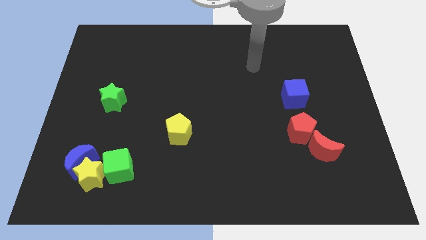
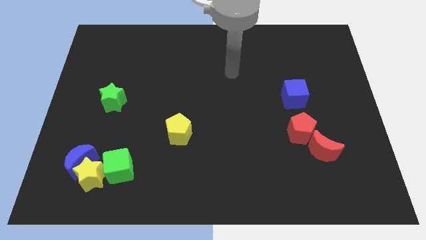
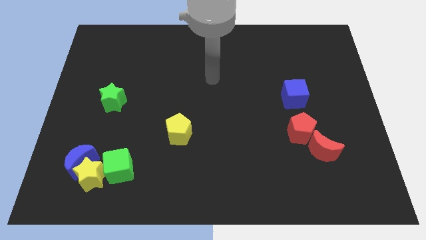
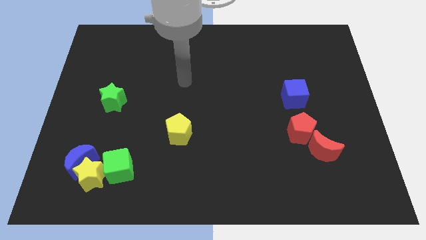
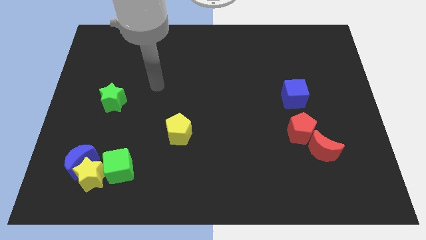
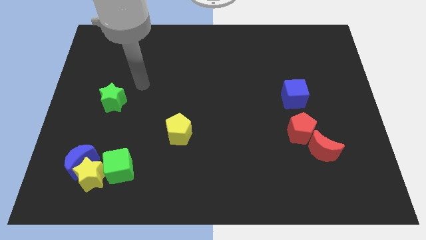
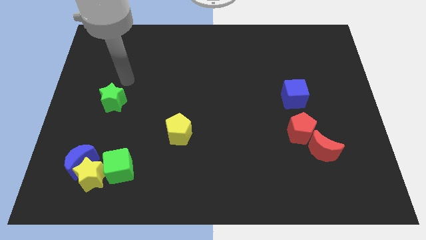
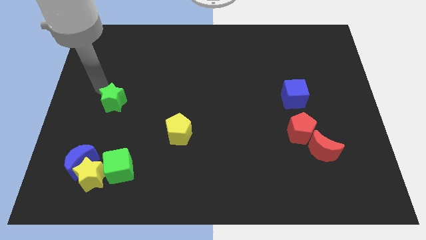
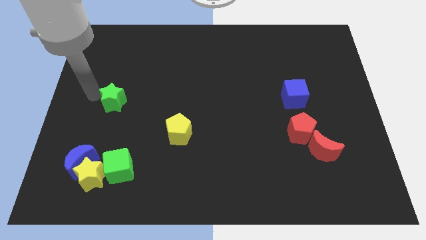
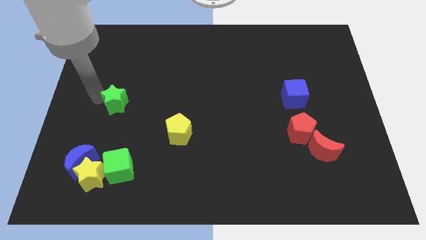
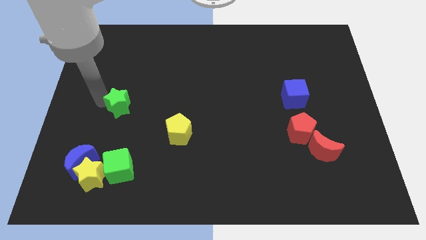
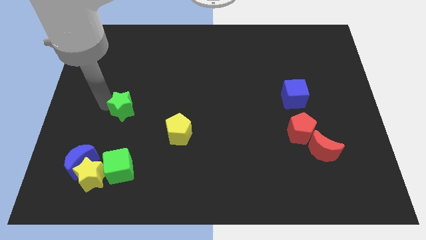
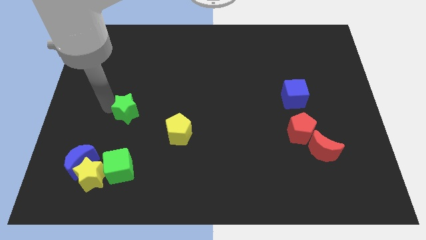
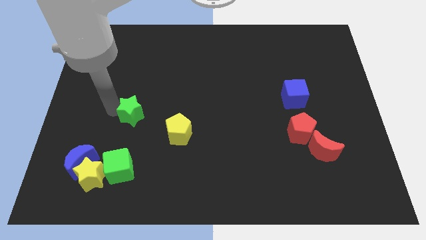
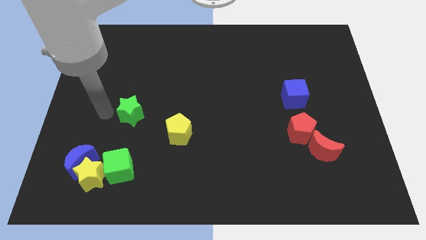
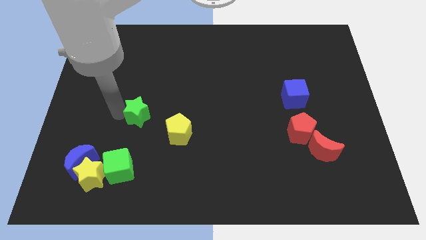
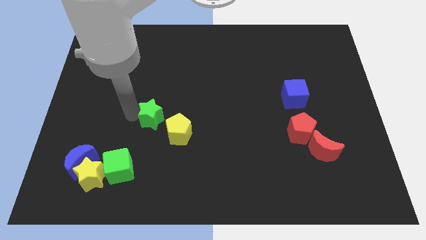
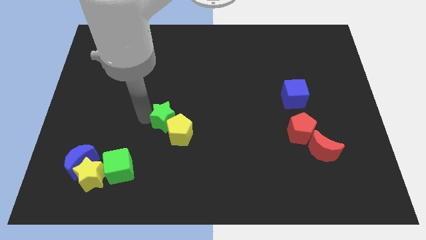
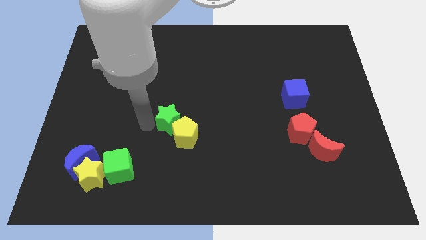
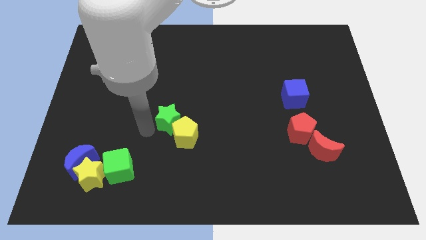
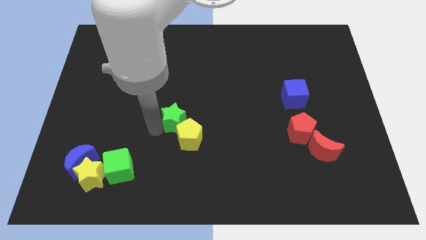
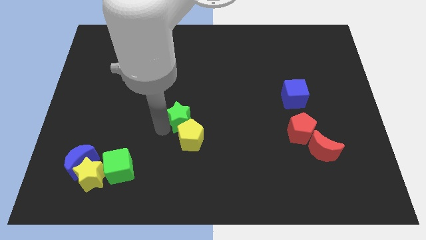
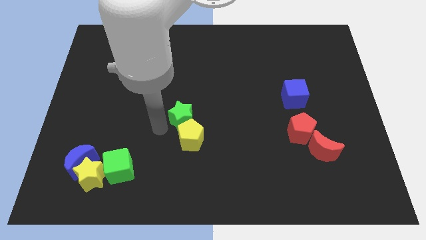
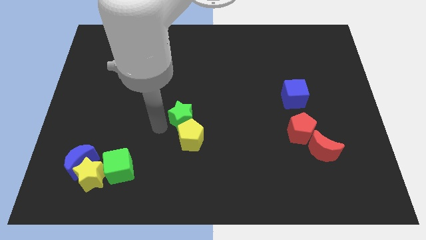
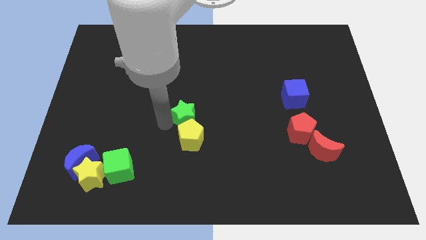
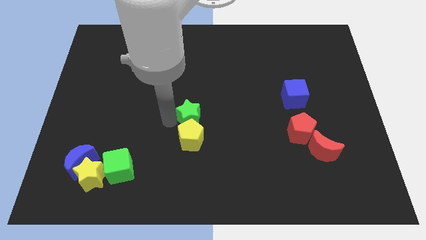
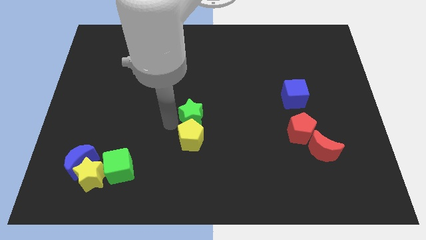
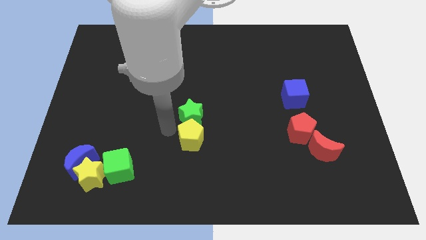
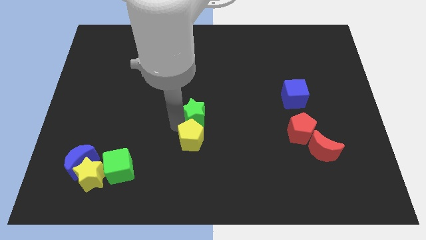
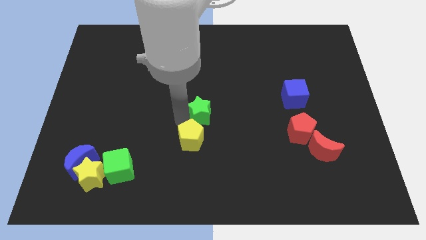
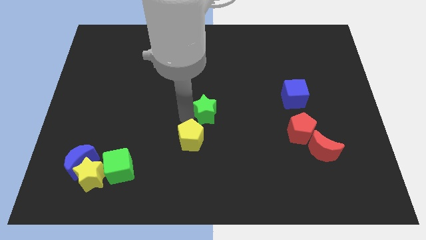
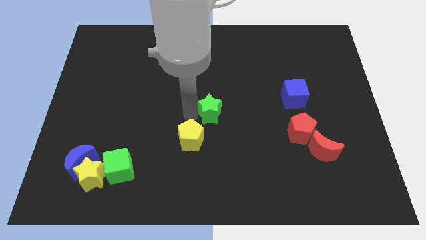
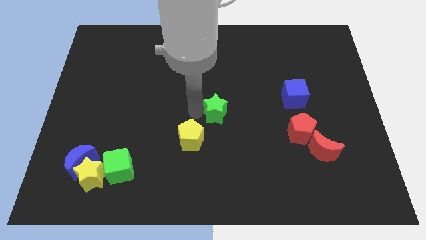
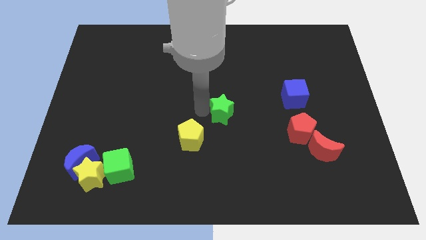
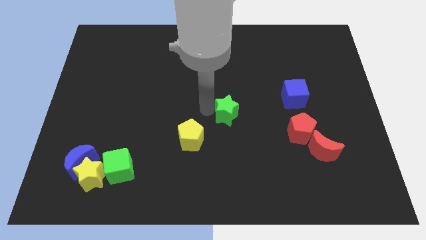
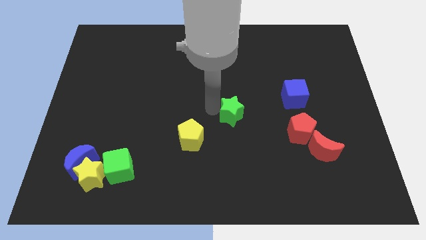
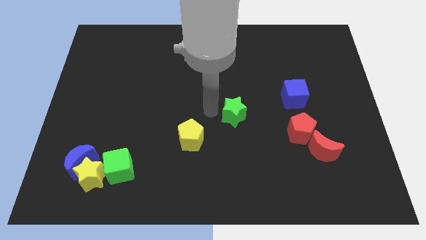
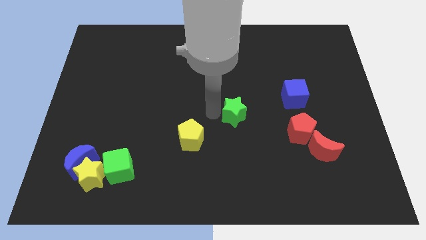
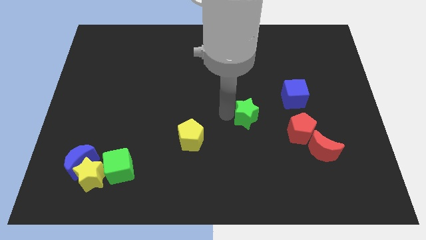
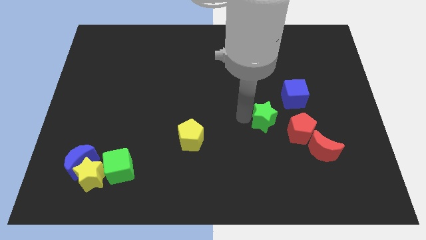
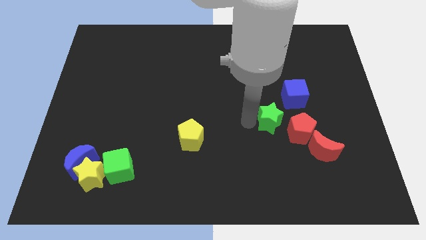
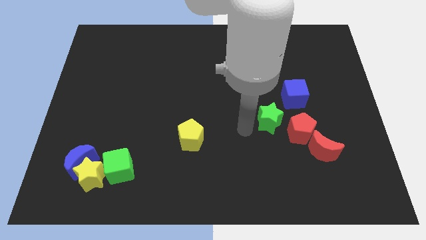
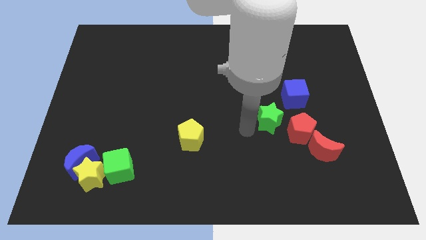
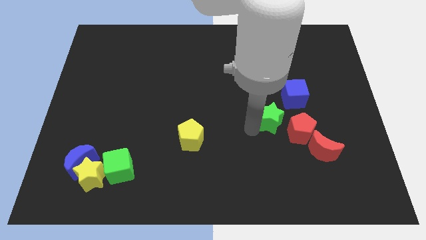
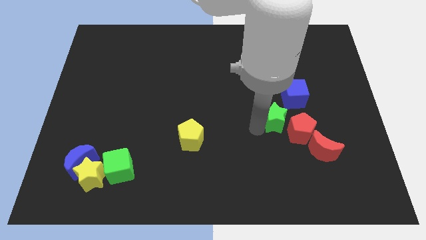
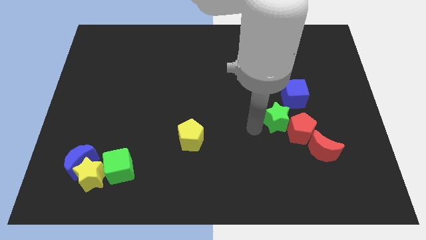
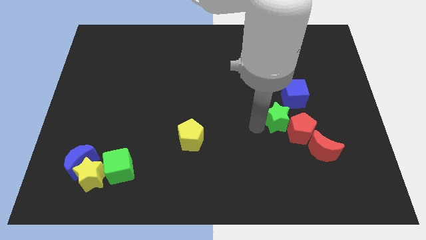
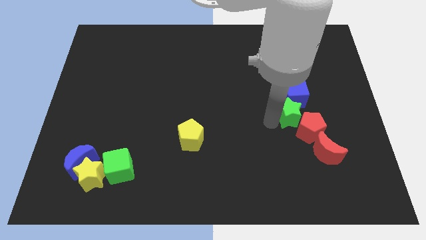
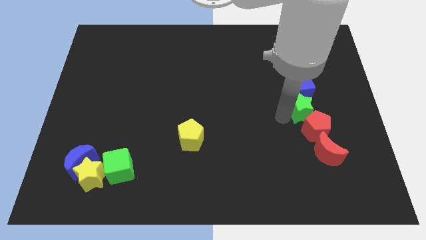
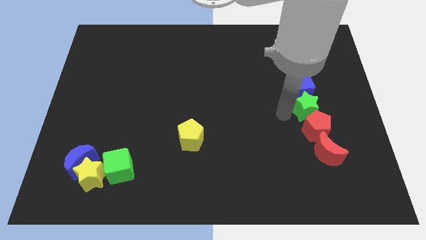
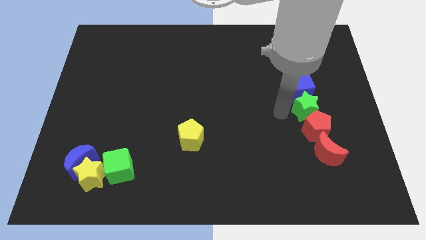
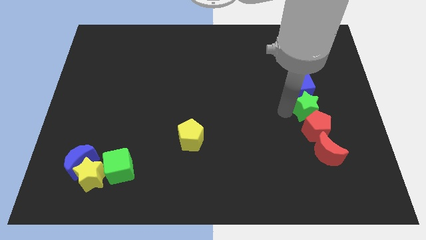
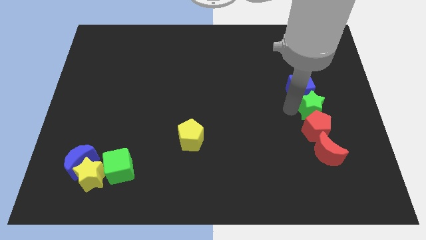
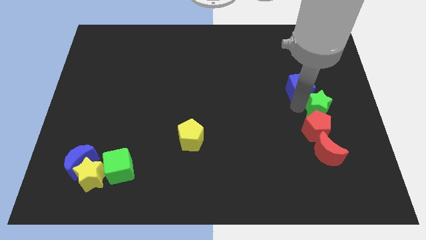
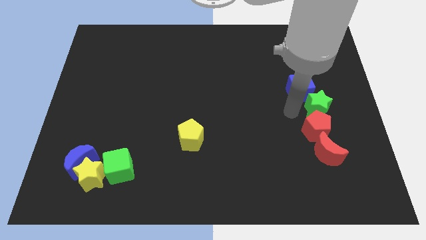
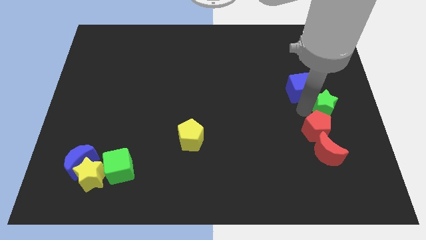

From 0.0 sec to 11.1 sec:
put the green star to the center right

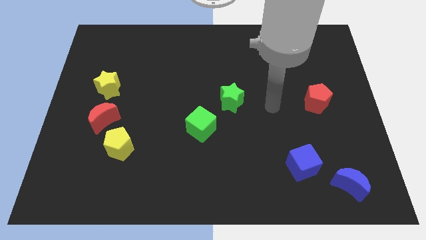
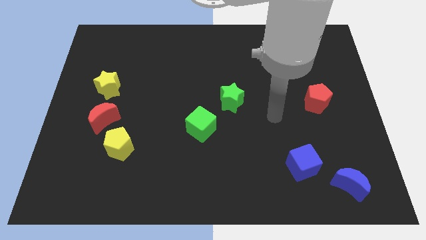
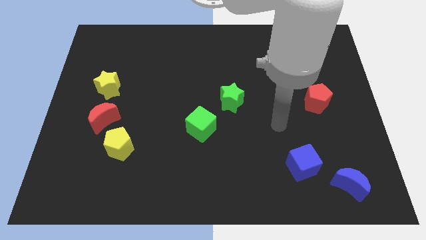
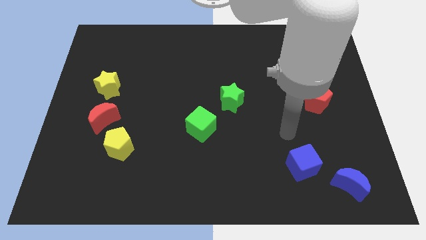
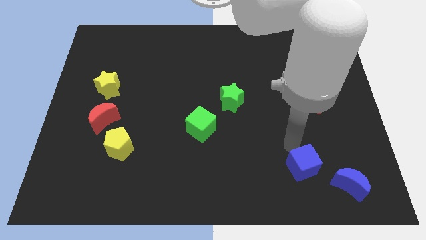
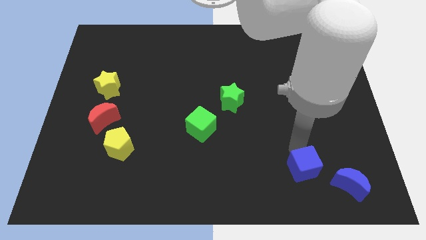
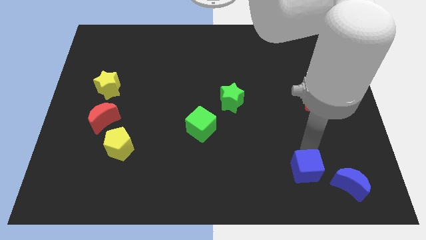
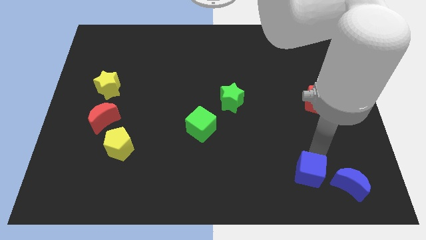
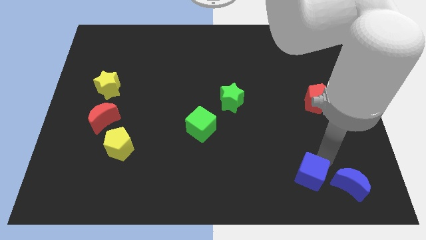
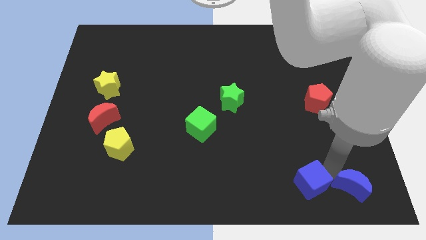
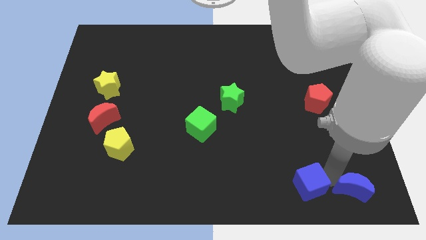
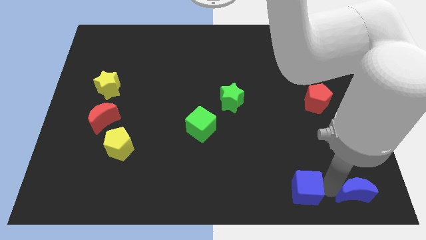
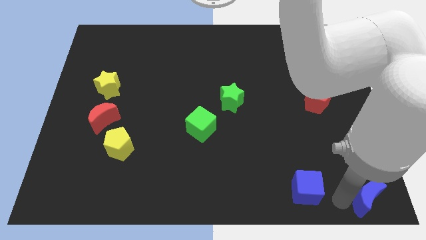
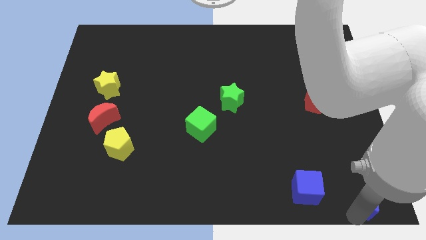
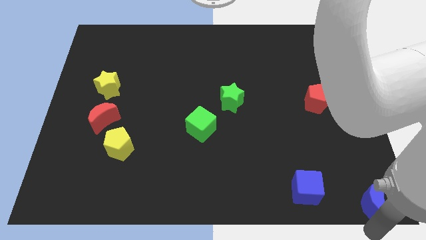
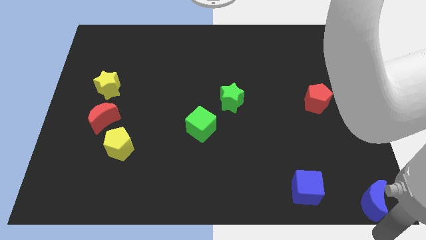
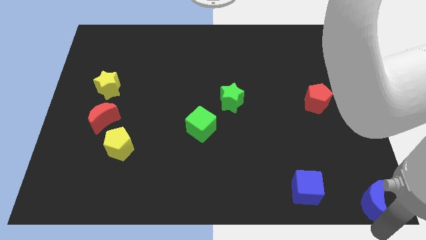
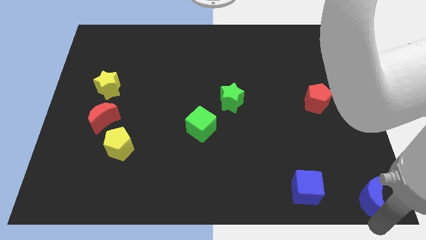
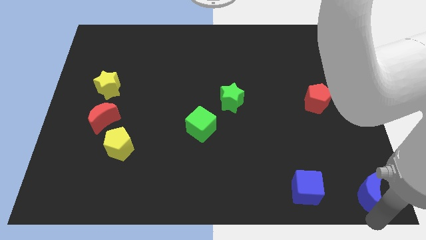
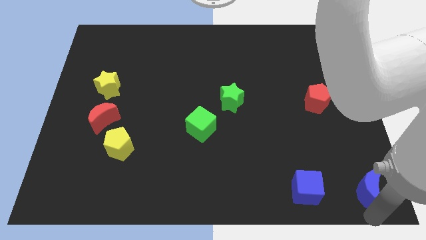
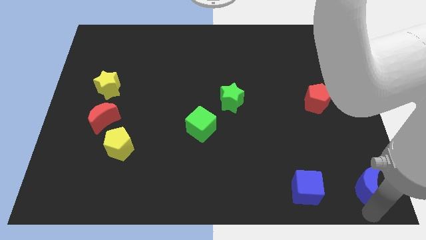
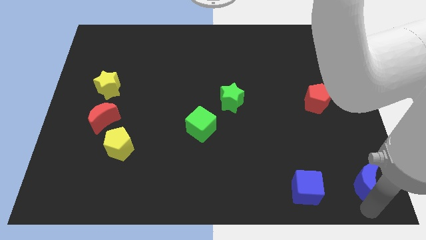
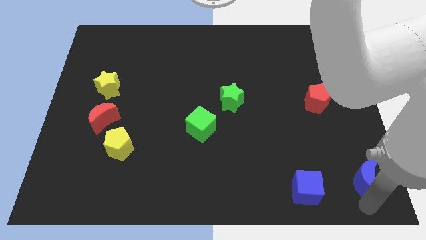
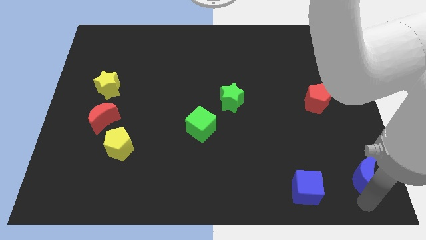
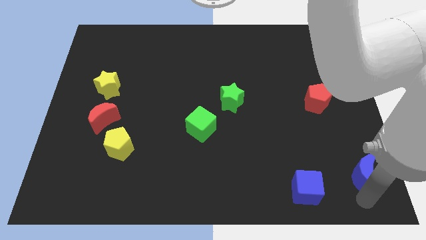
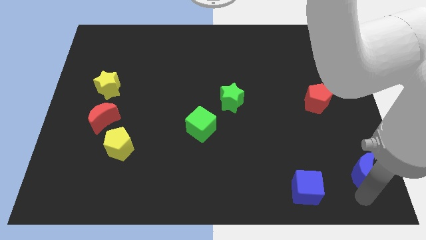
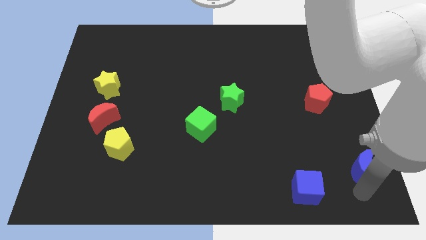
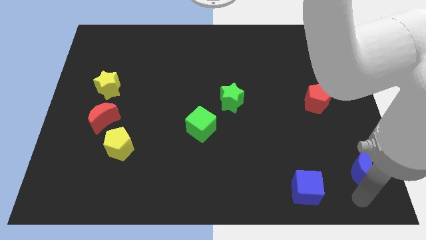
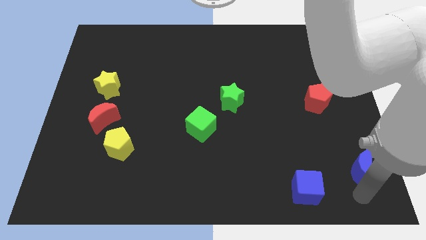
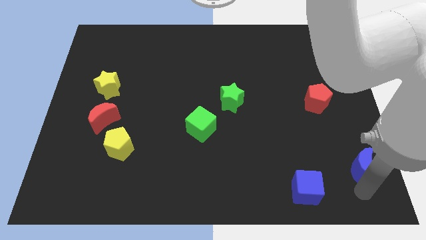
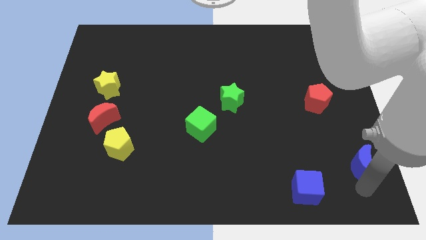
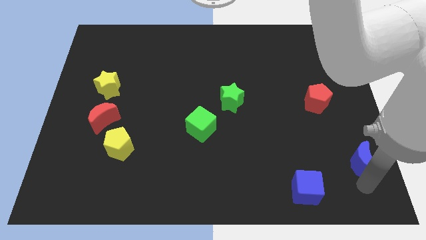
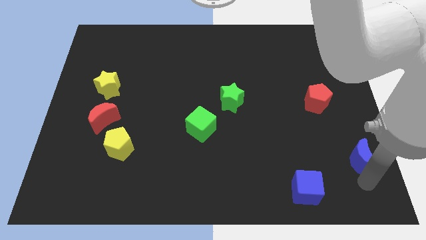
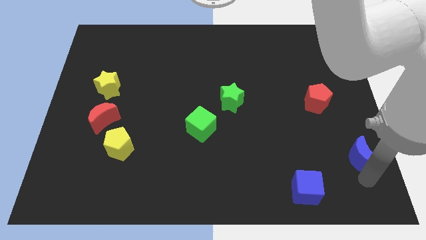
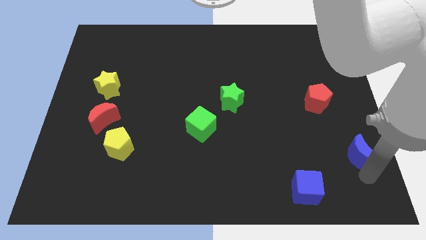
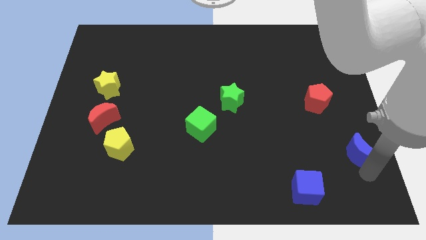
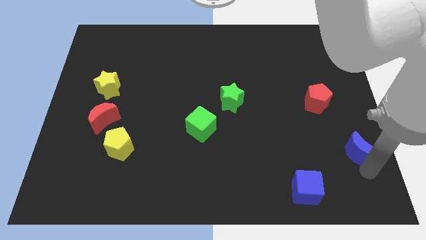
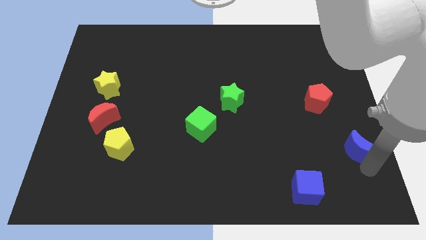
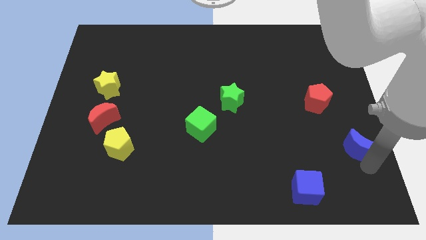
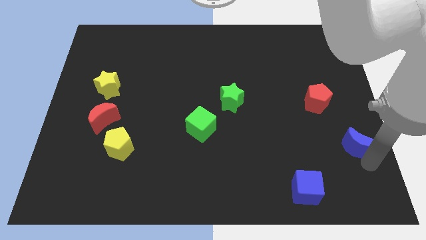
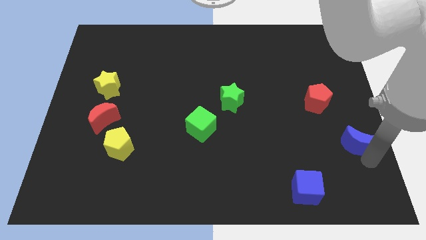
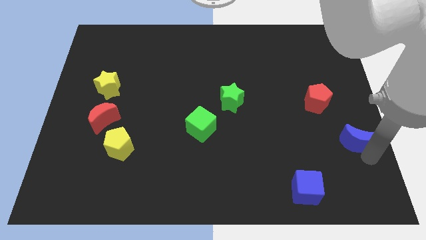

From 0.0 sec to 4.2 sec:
slide the blue moon to the right side of the board
